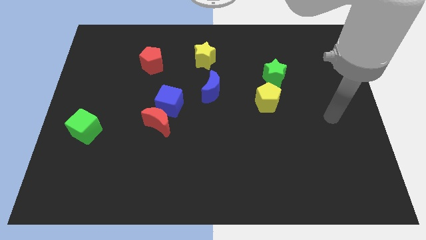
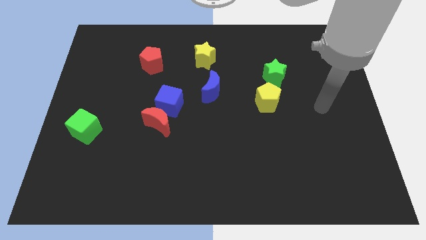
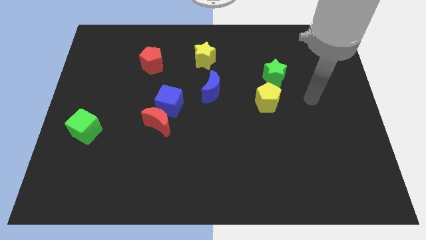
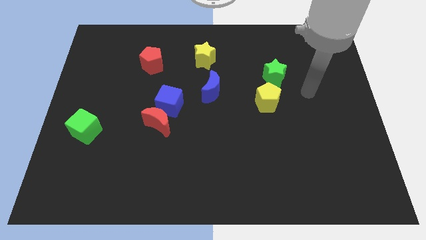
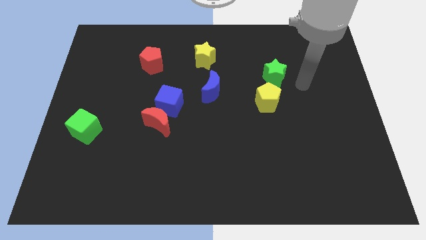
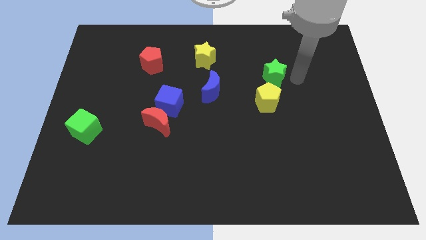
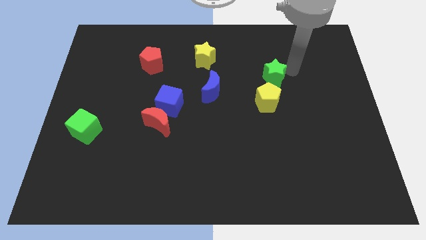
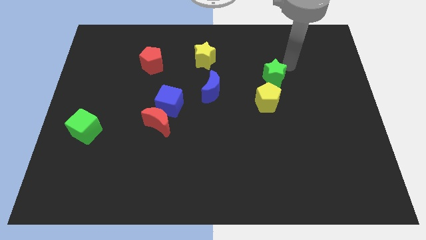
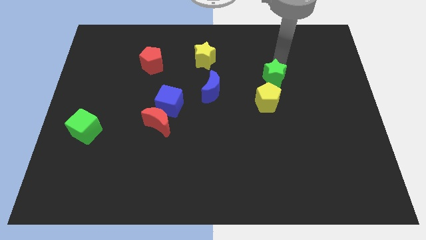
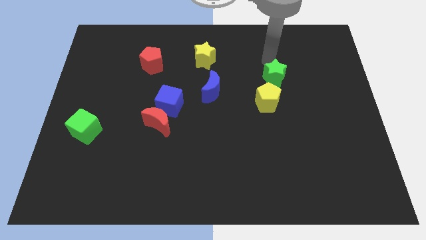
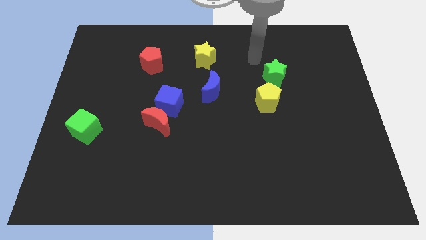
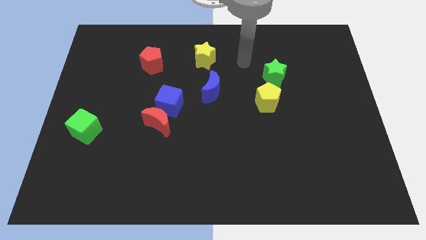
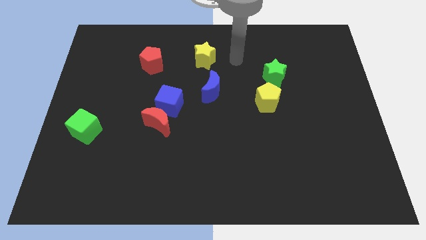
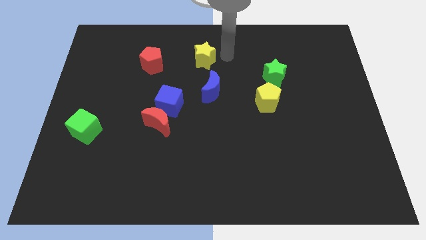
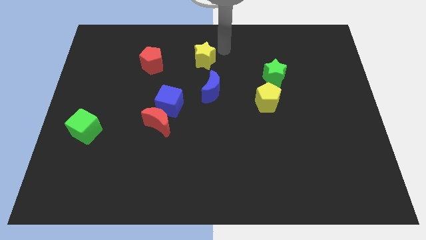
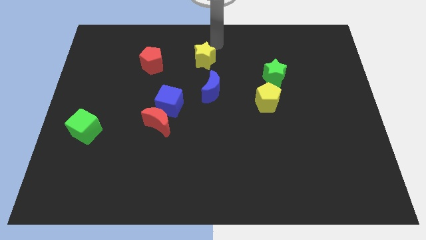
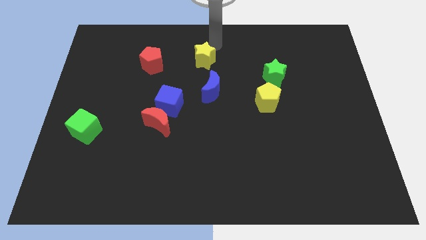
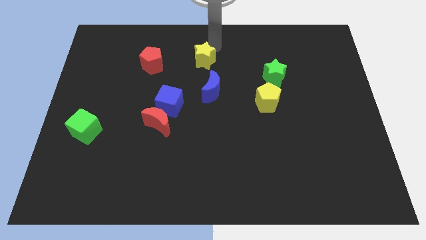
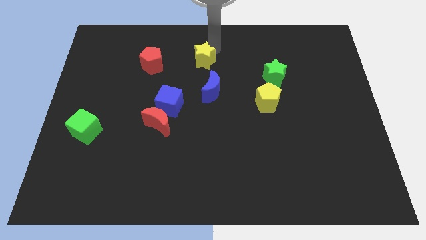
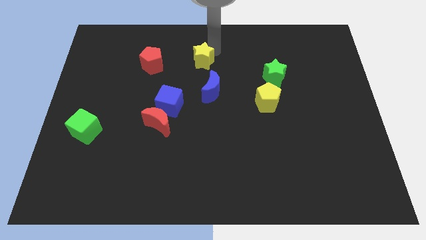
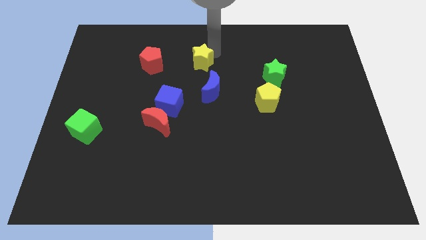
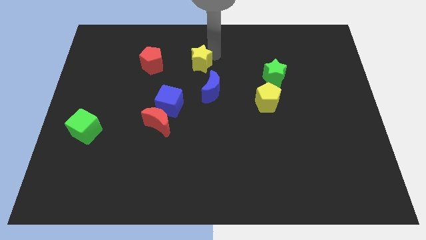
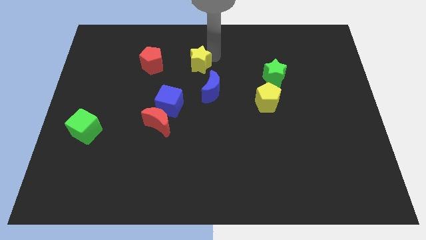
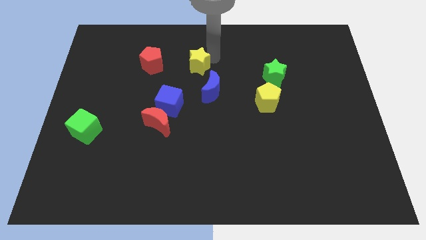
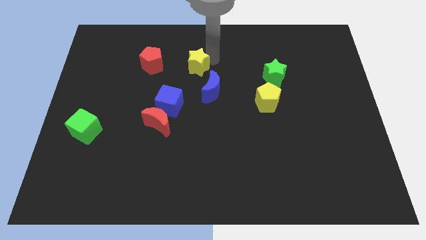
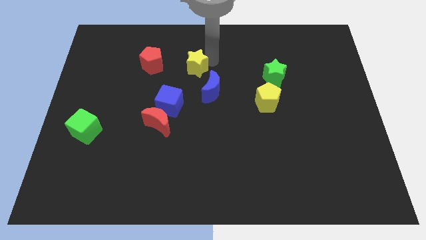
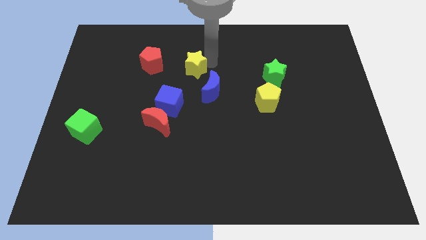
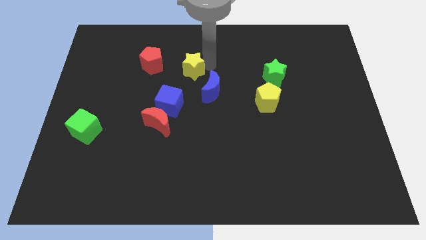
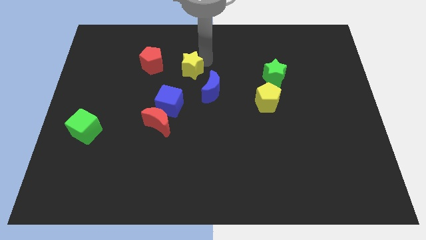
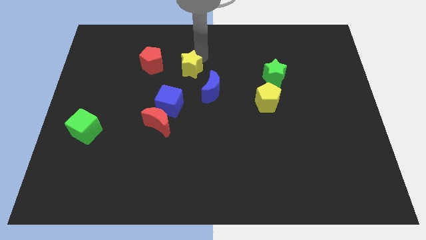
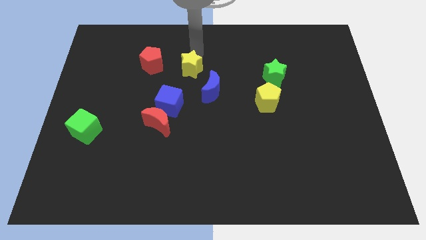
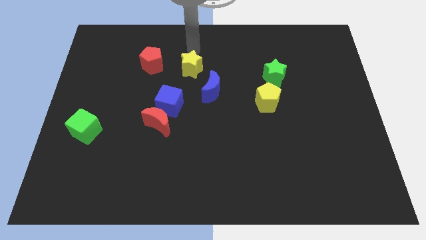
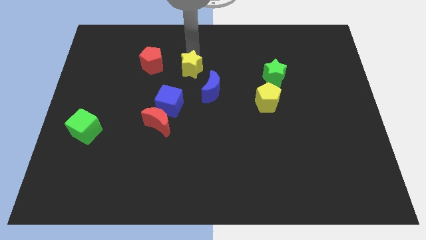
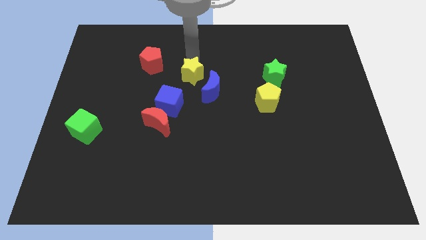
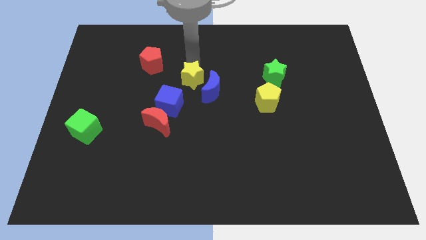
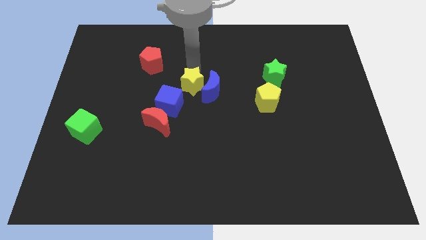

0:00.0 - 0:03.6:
slightly move the yellow star down

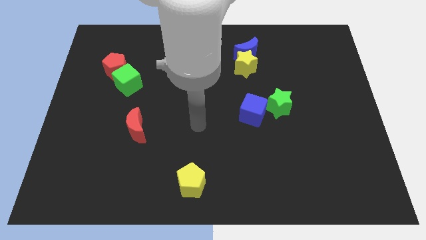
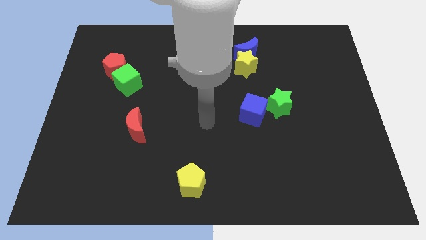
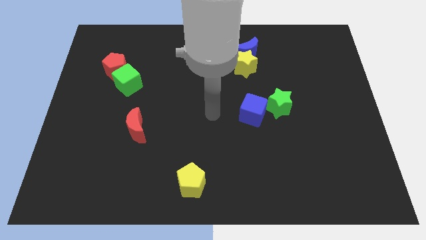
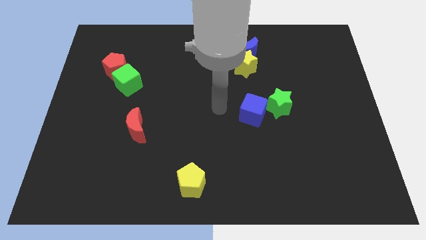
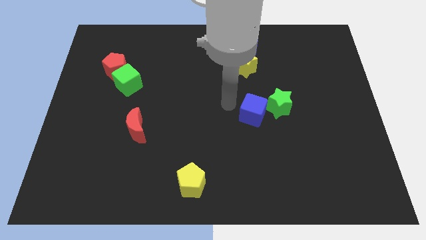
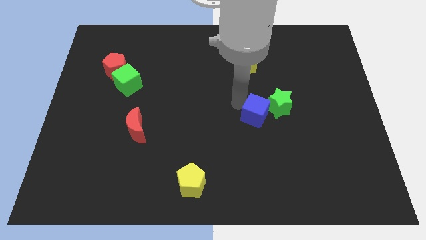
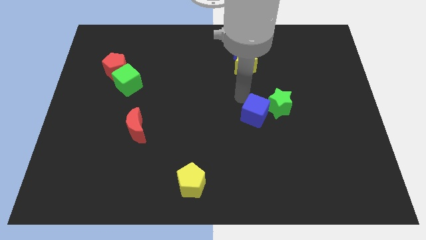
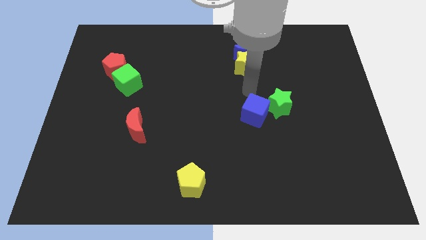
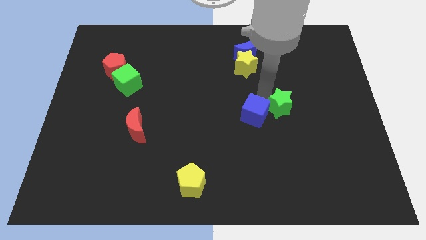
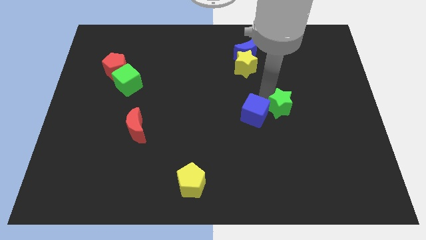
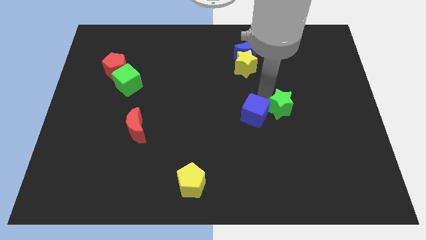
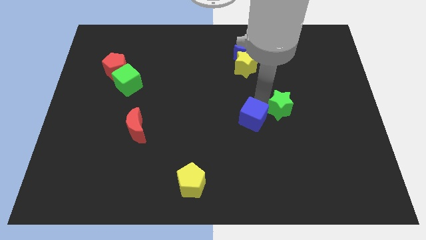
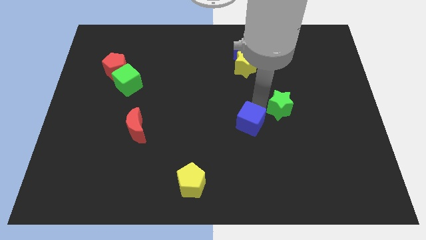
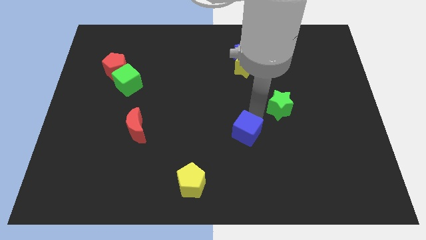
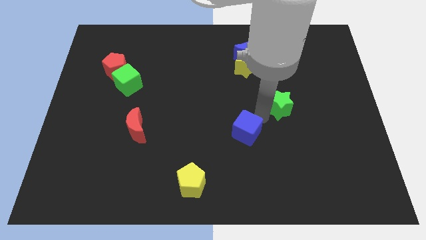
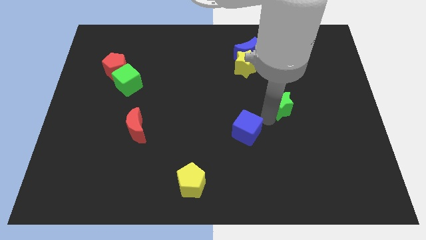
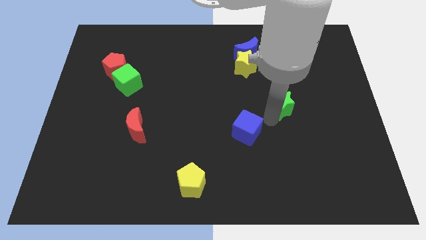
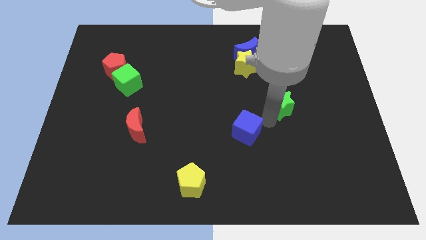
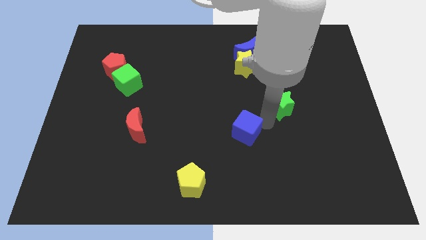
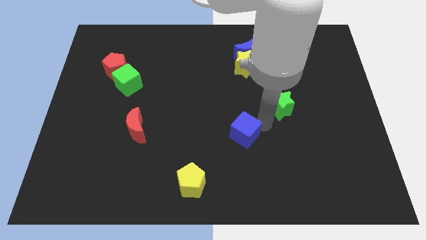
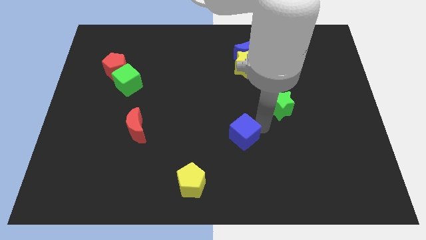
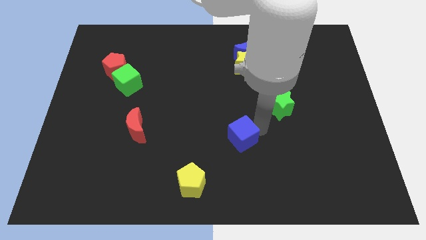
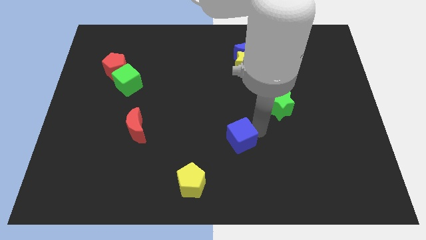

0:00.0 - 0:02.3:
slightly slide the blue cube diagonally downwards and to the left

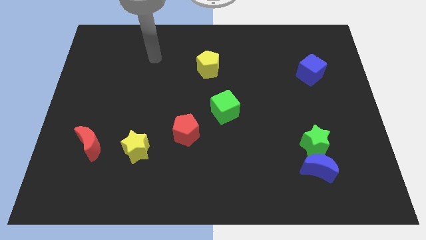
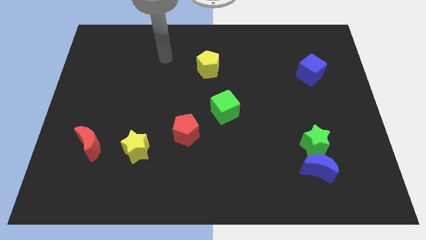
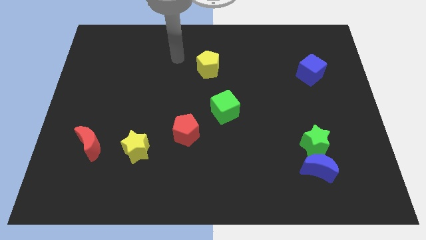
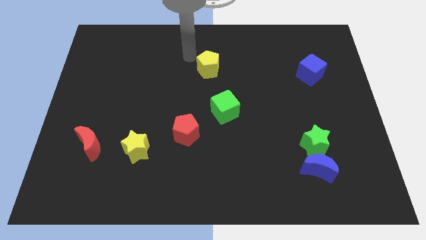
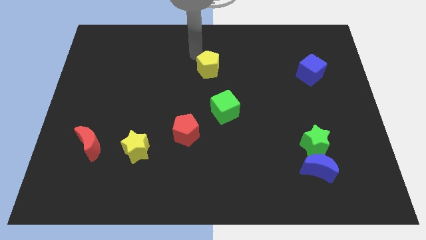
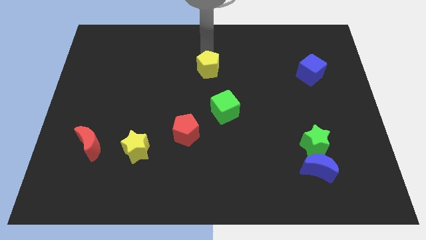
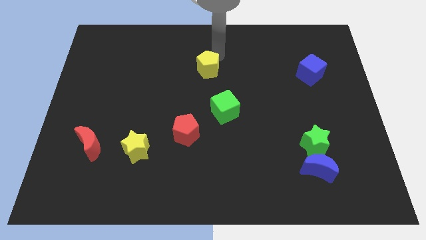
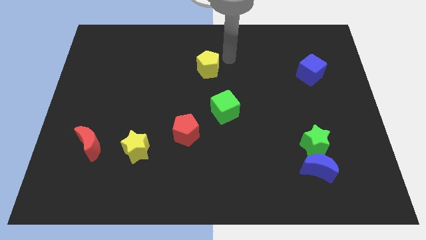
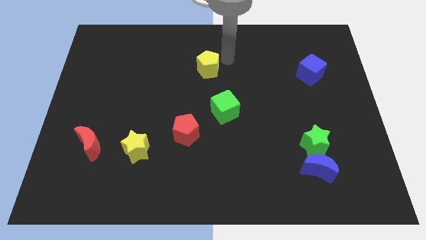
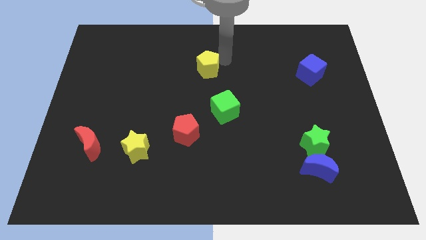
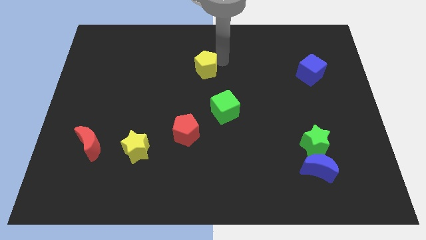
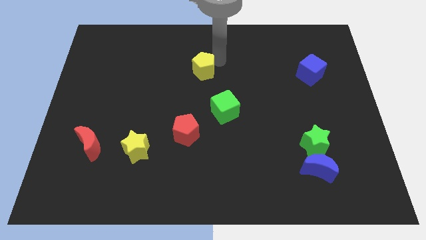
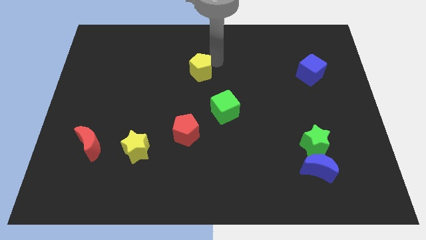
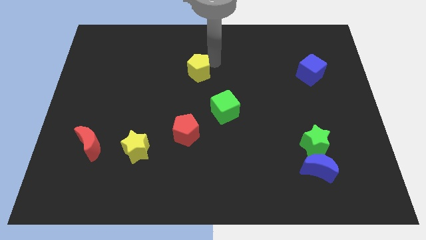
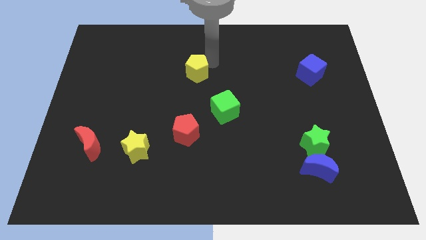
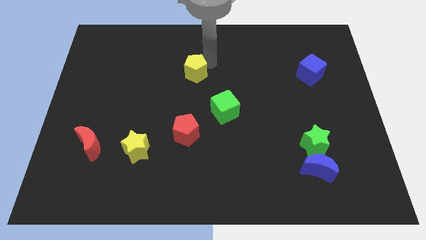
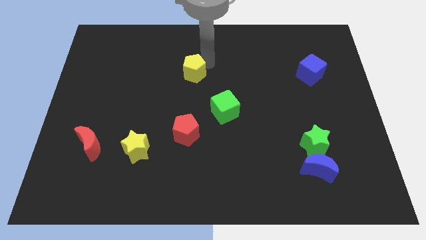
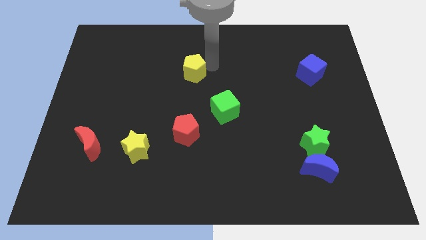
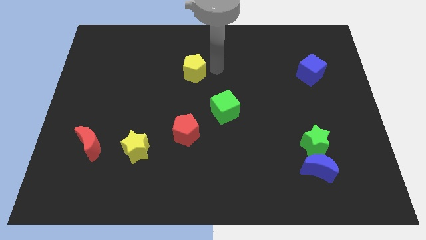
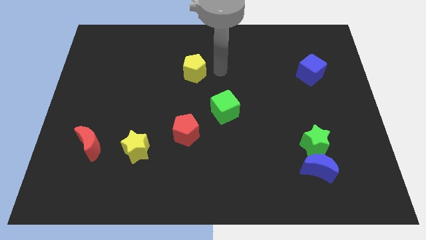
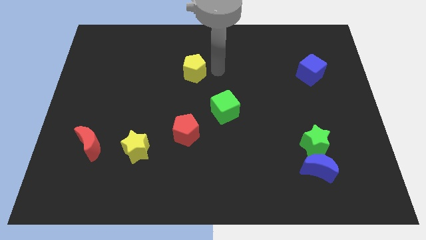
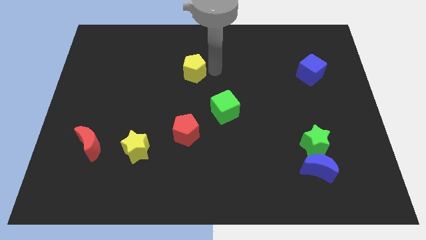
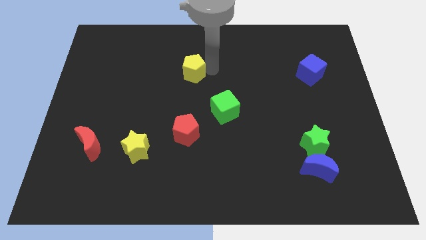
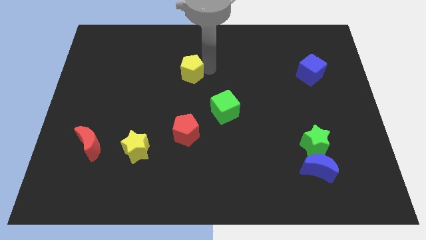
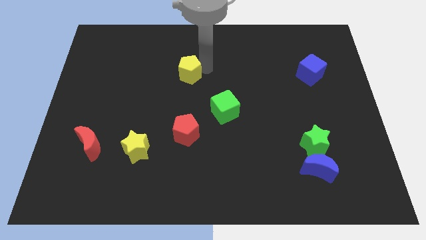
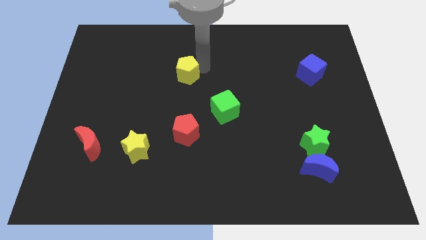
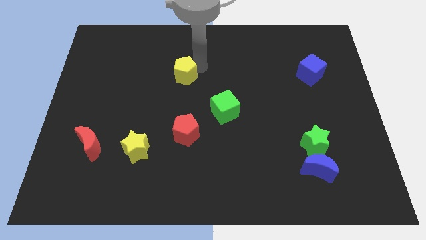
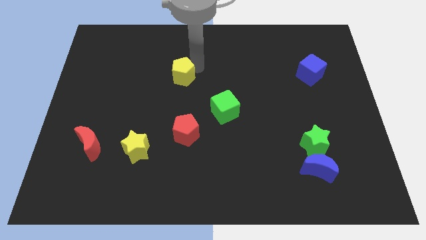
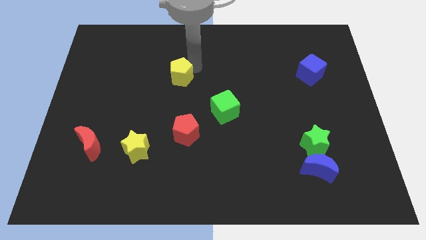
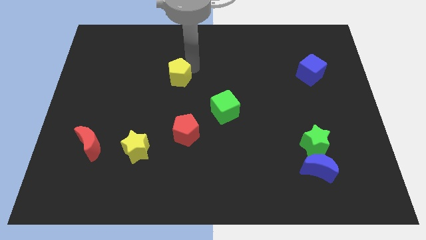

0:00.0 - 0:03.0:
slightly move the yellow pentagon to the left
